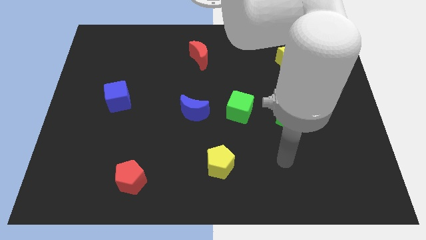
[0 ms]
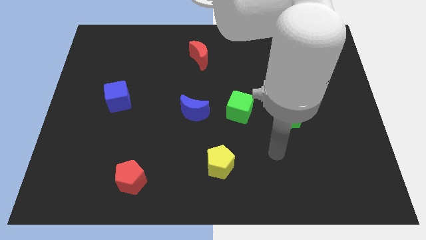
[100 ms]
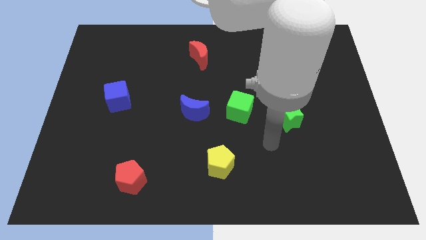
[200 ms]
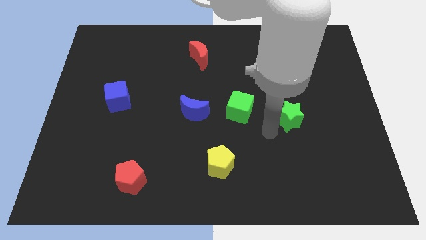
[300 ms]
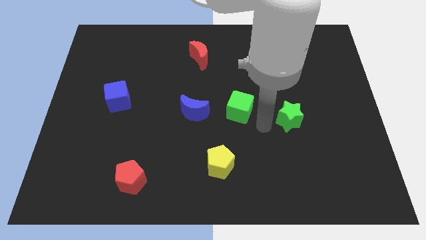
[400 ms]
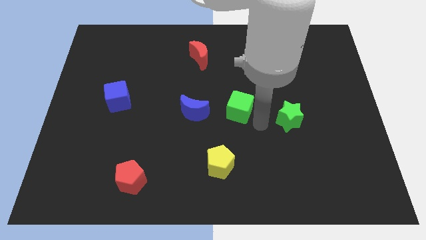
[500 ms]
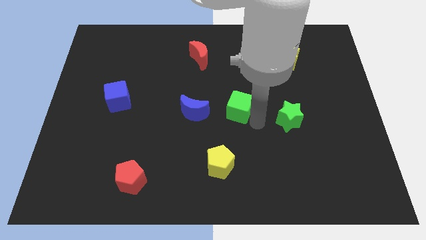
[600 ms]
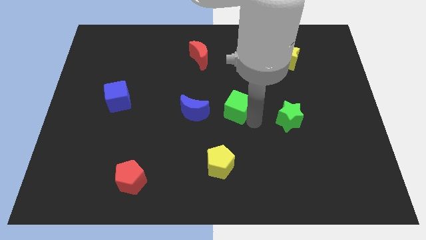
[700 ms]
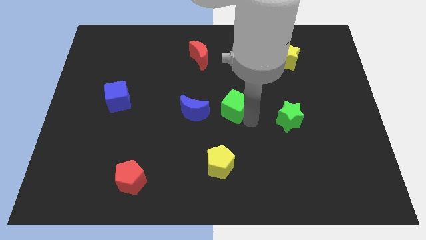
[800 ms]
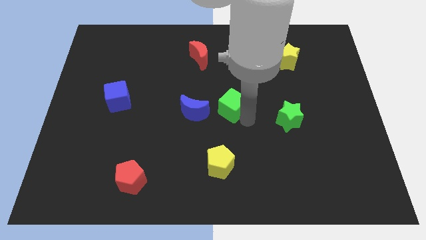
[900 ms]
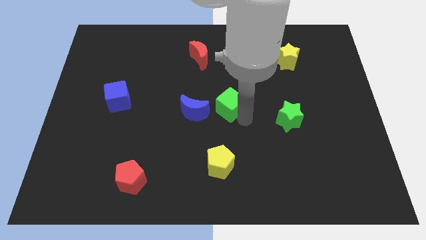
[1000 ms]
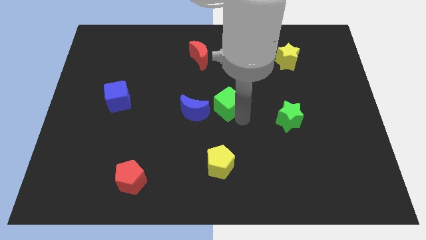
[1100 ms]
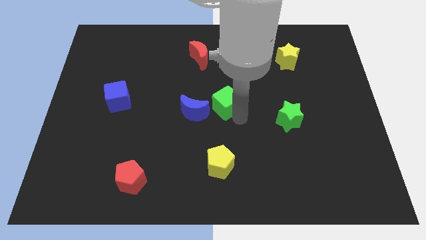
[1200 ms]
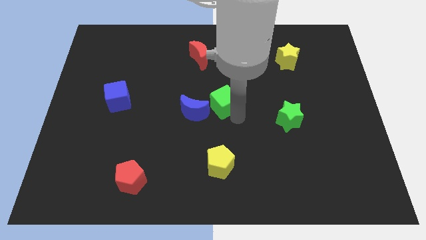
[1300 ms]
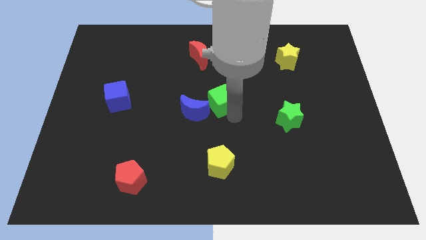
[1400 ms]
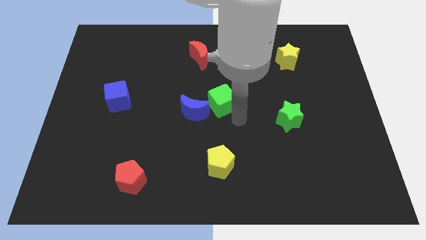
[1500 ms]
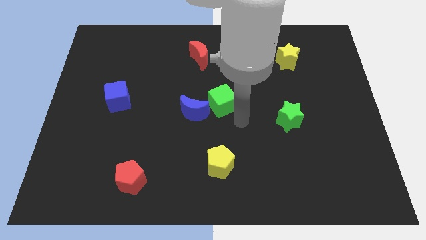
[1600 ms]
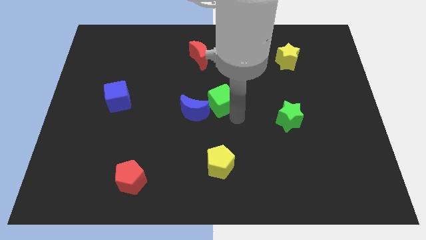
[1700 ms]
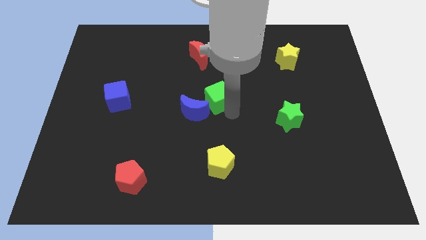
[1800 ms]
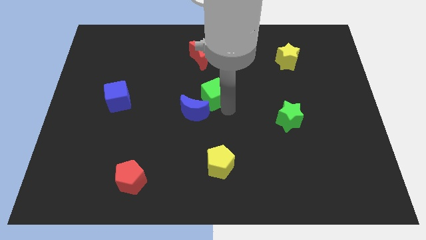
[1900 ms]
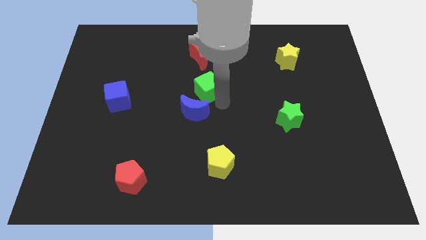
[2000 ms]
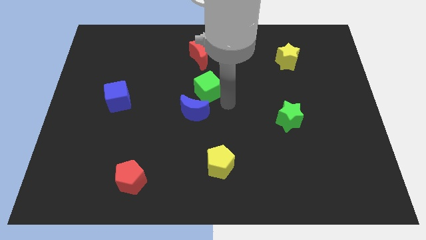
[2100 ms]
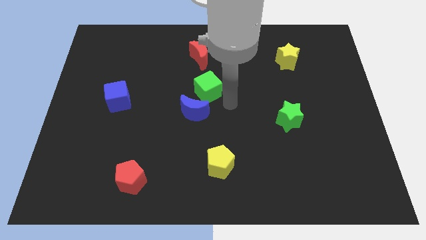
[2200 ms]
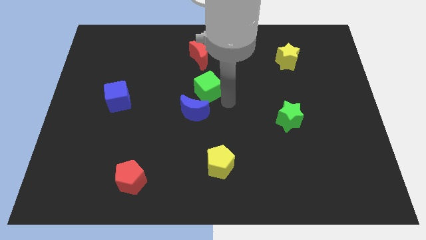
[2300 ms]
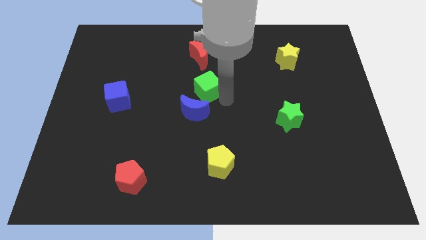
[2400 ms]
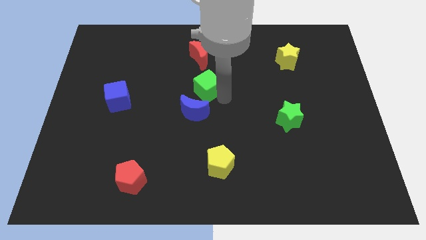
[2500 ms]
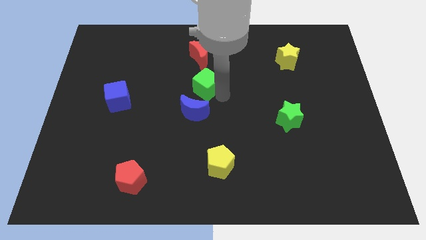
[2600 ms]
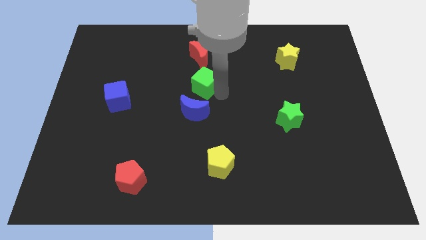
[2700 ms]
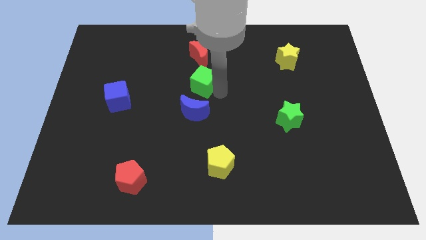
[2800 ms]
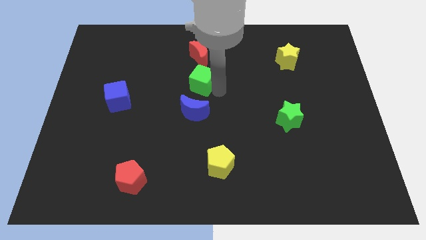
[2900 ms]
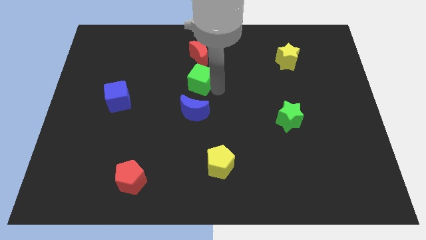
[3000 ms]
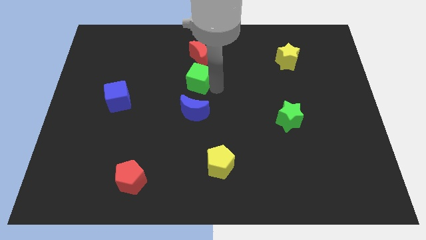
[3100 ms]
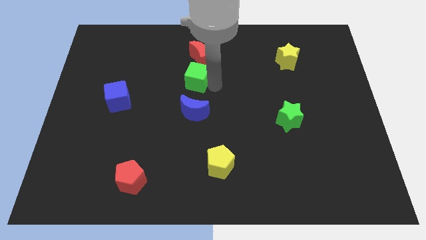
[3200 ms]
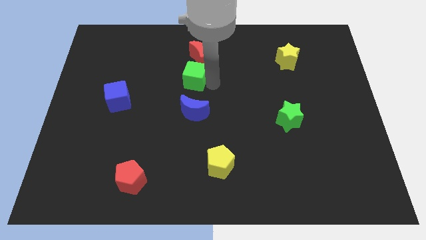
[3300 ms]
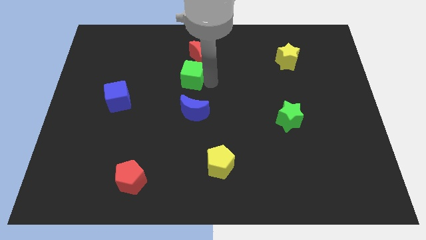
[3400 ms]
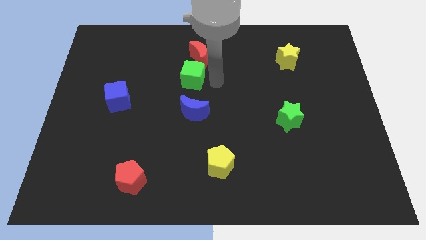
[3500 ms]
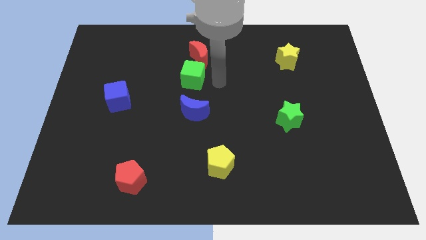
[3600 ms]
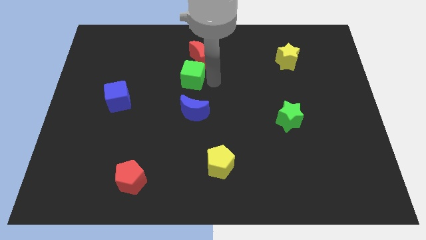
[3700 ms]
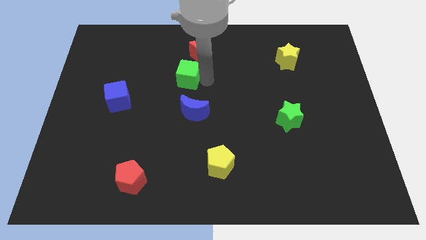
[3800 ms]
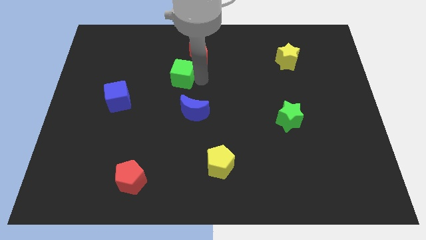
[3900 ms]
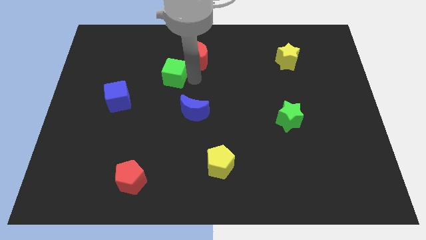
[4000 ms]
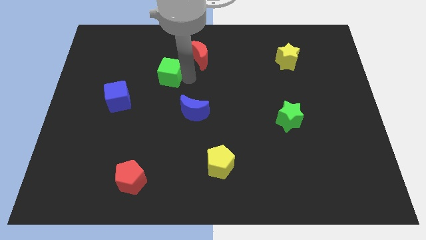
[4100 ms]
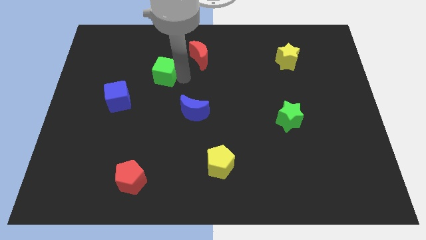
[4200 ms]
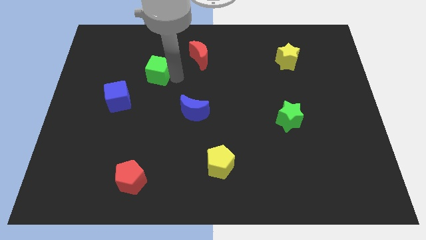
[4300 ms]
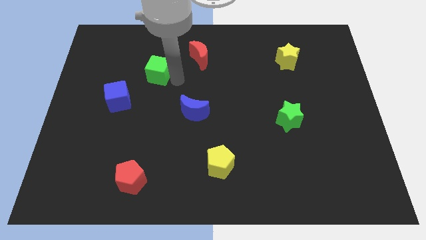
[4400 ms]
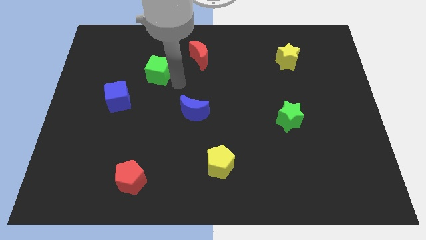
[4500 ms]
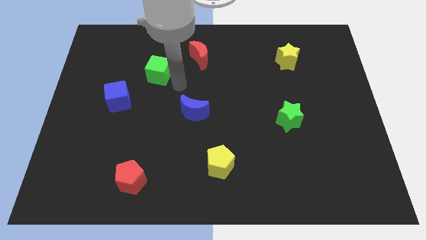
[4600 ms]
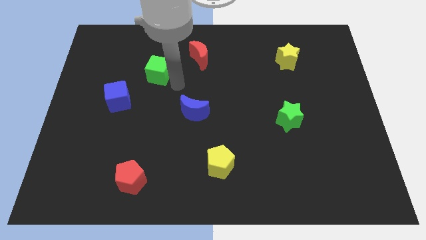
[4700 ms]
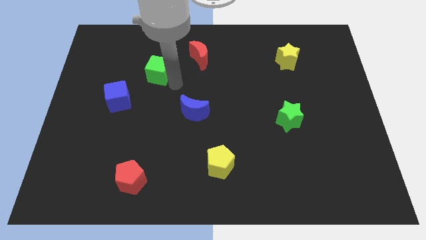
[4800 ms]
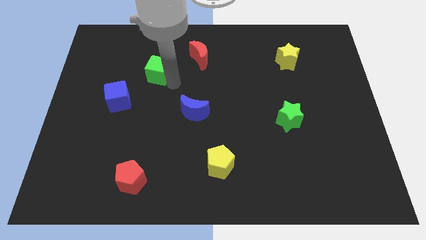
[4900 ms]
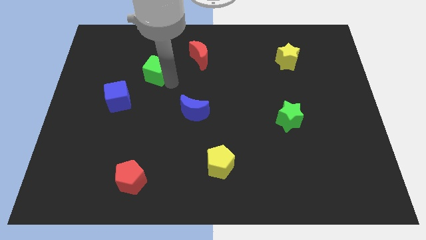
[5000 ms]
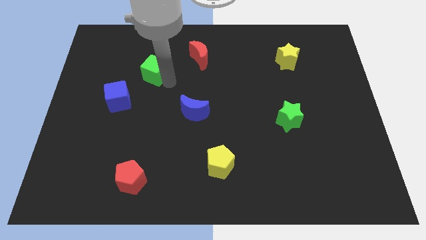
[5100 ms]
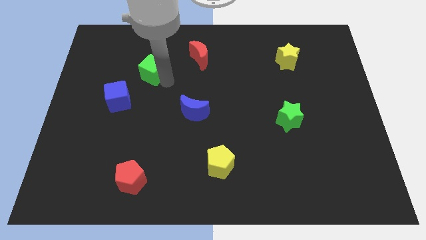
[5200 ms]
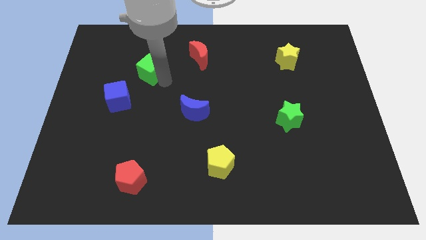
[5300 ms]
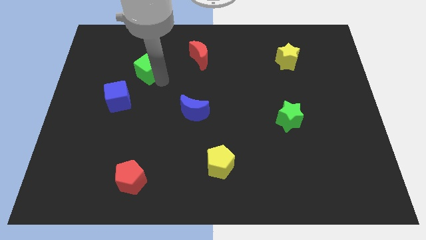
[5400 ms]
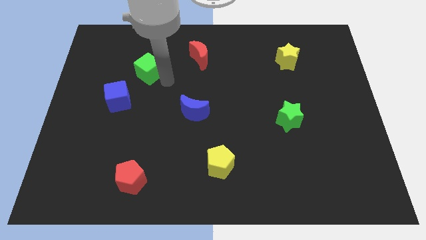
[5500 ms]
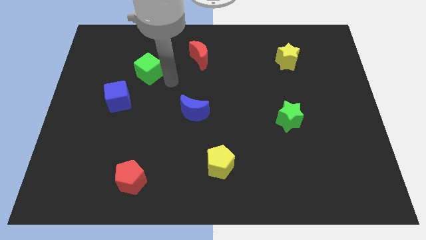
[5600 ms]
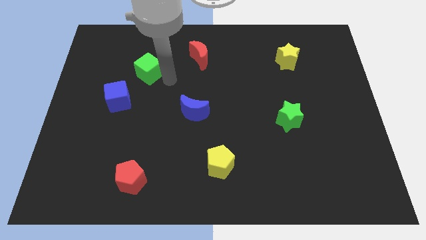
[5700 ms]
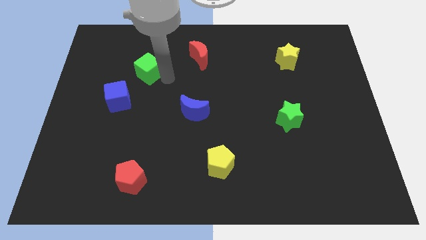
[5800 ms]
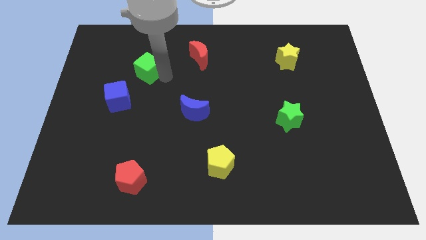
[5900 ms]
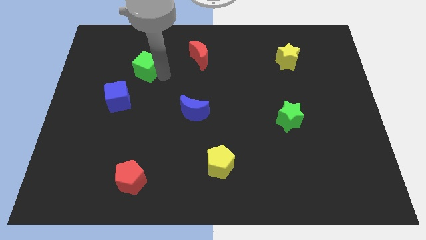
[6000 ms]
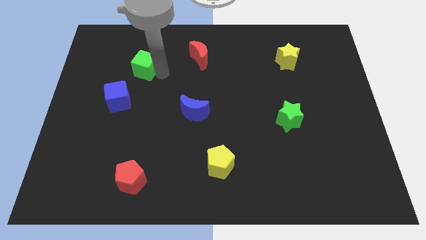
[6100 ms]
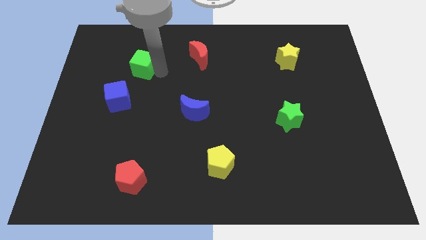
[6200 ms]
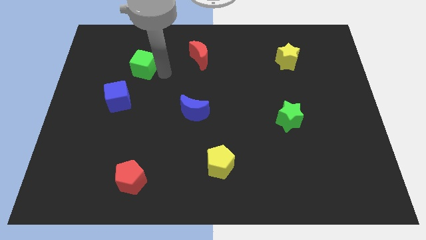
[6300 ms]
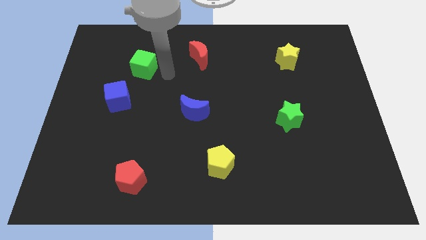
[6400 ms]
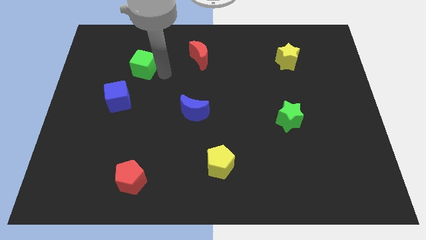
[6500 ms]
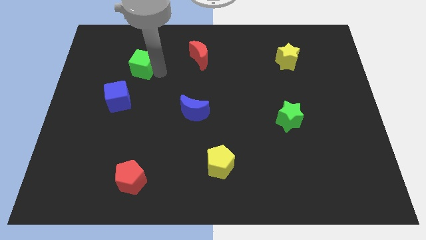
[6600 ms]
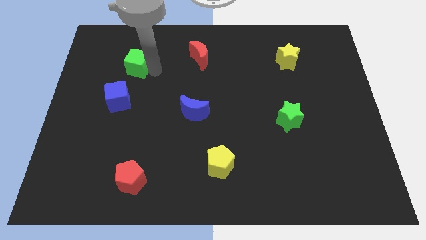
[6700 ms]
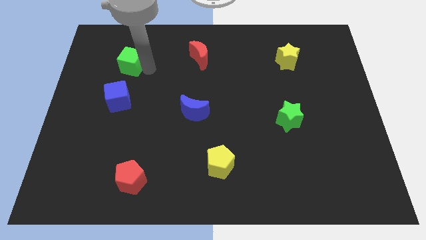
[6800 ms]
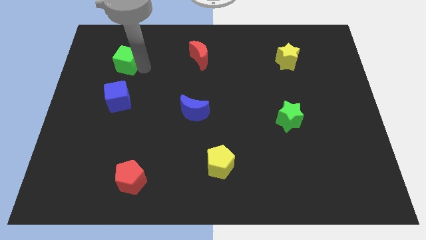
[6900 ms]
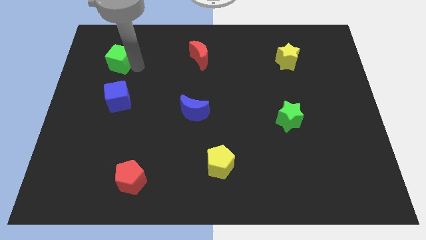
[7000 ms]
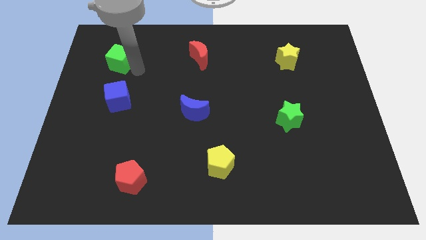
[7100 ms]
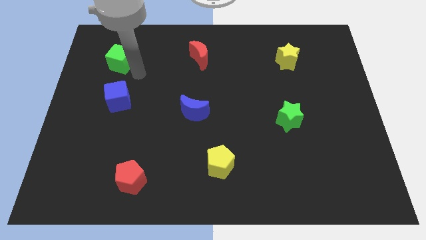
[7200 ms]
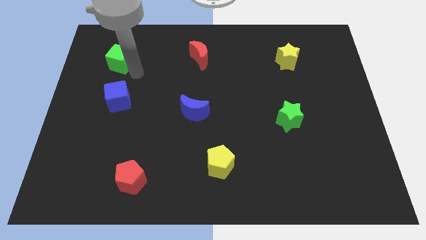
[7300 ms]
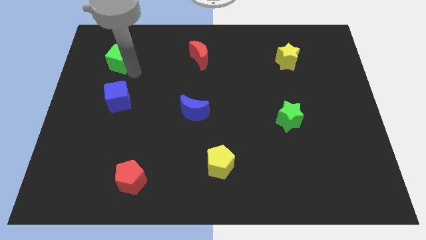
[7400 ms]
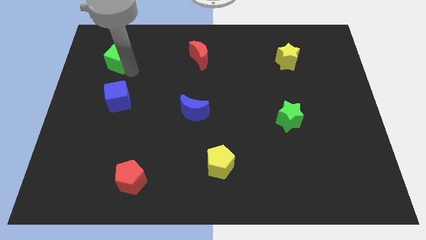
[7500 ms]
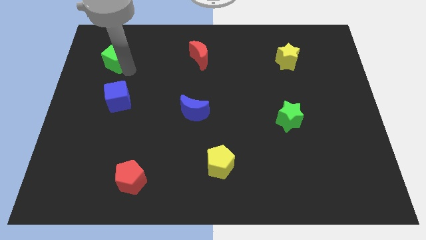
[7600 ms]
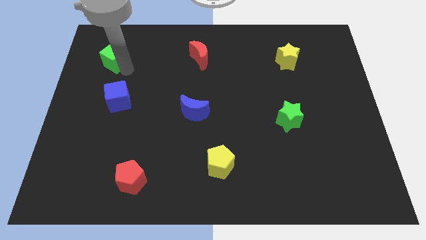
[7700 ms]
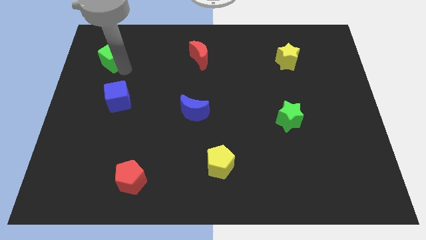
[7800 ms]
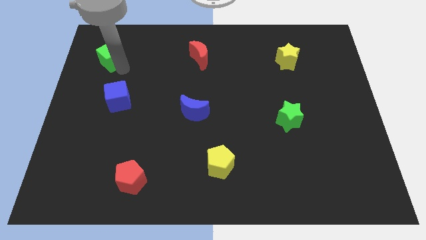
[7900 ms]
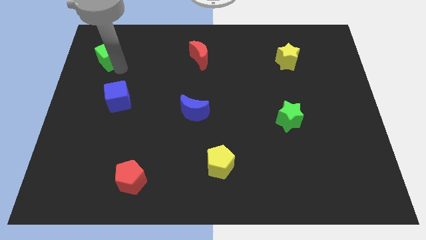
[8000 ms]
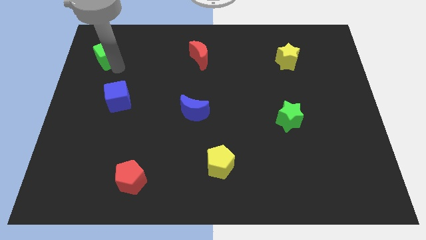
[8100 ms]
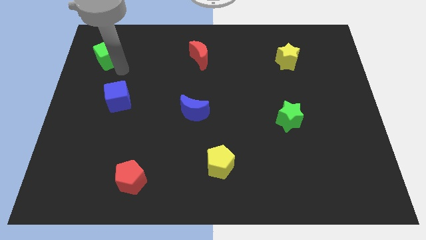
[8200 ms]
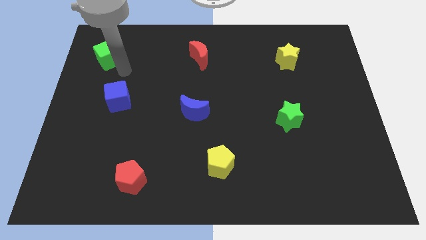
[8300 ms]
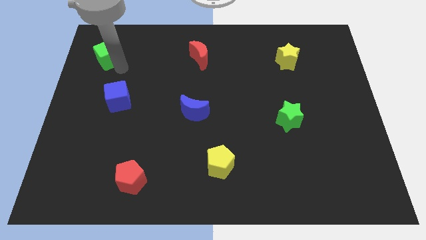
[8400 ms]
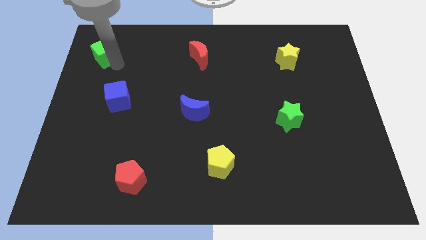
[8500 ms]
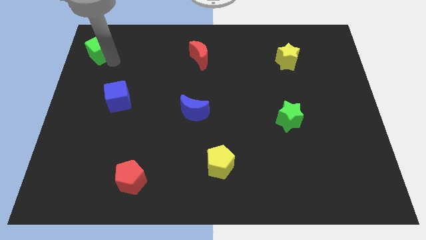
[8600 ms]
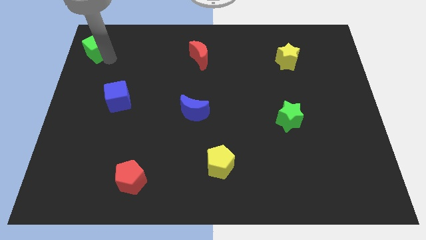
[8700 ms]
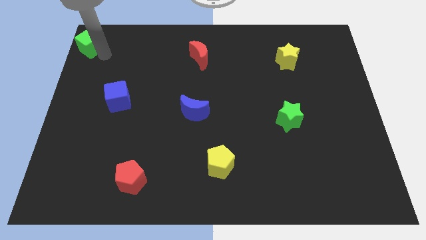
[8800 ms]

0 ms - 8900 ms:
slide the green cube to the top left
